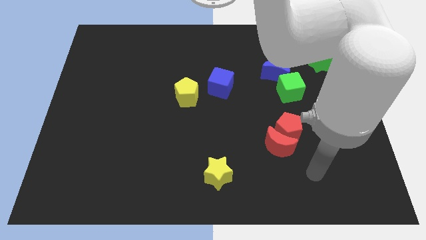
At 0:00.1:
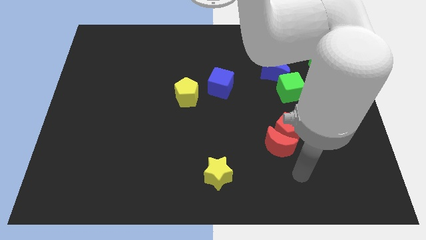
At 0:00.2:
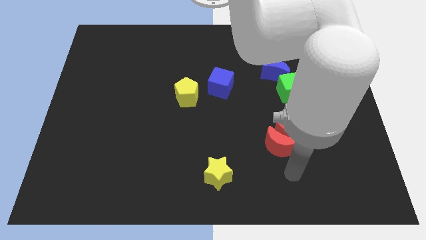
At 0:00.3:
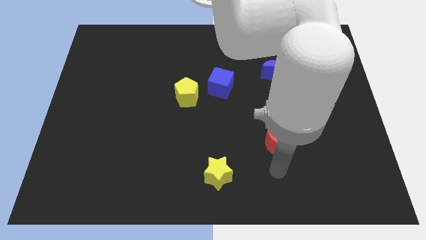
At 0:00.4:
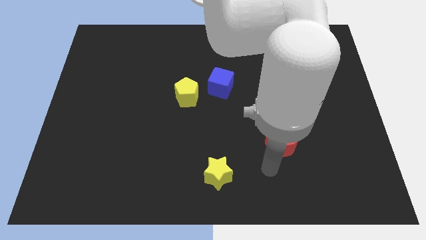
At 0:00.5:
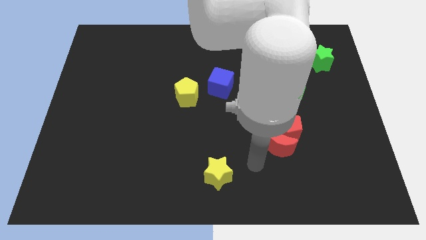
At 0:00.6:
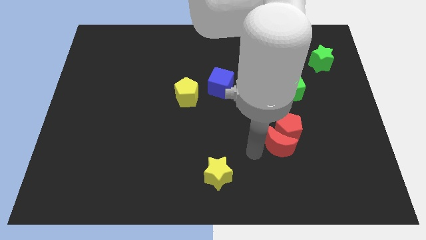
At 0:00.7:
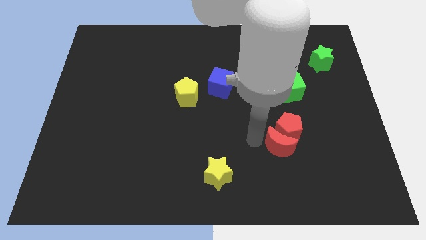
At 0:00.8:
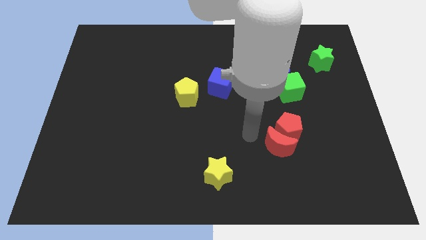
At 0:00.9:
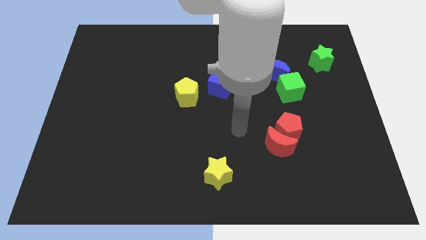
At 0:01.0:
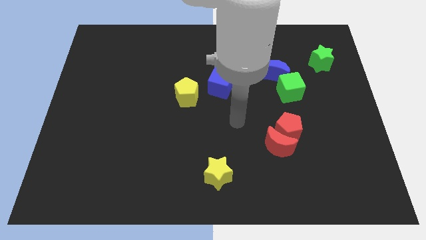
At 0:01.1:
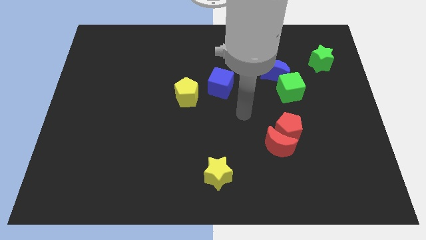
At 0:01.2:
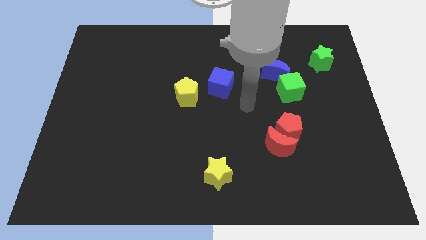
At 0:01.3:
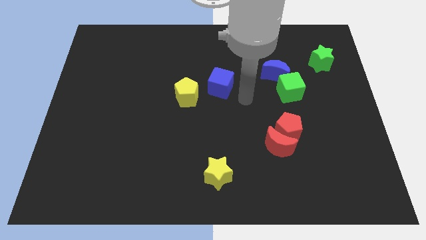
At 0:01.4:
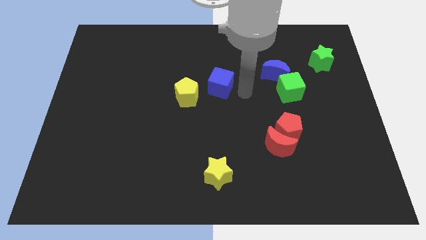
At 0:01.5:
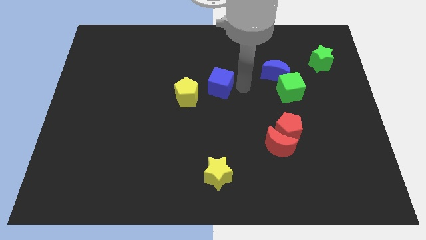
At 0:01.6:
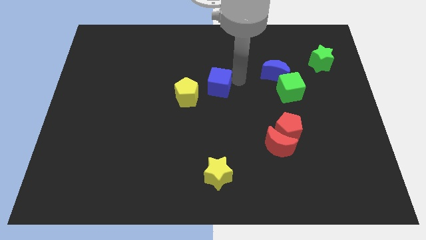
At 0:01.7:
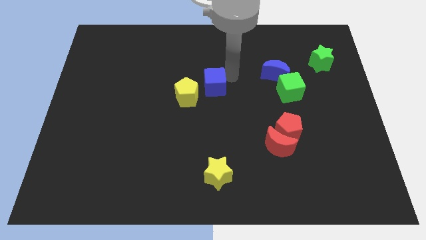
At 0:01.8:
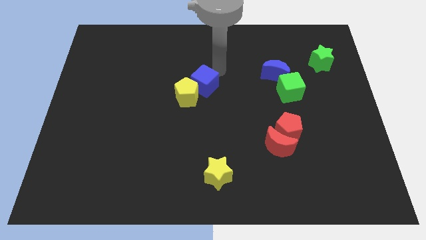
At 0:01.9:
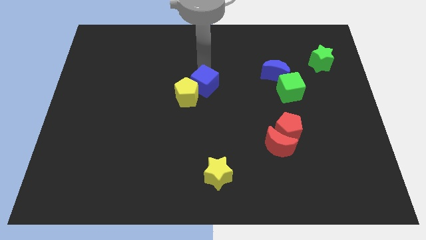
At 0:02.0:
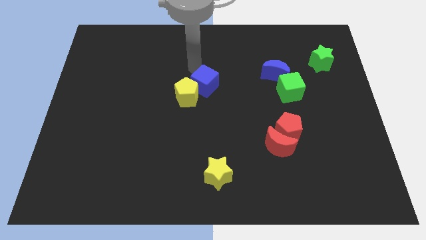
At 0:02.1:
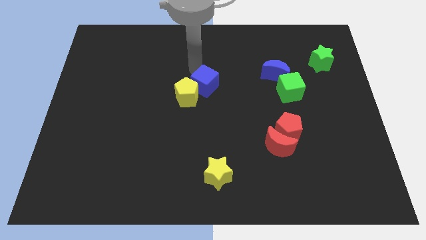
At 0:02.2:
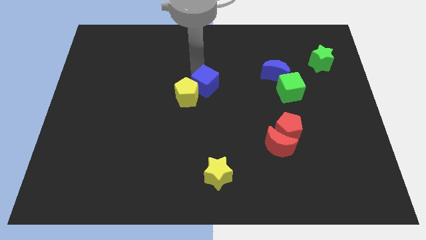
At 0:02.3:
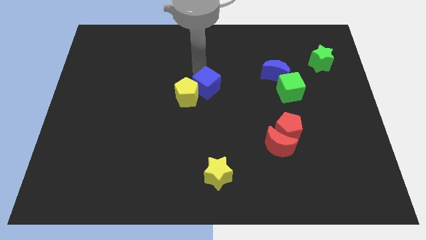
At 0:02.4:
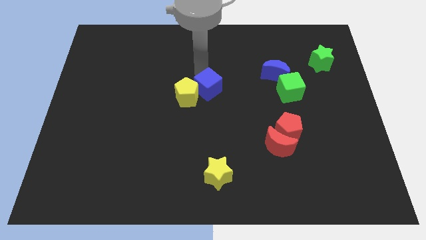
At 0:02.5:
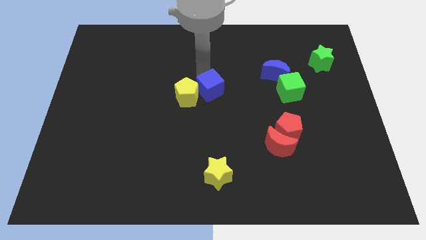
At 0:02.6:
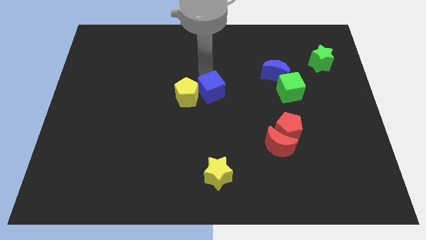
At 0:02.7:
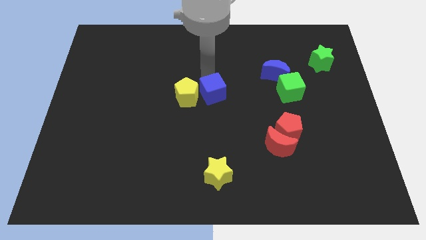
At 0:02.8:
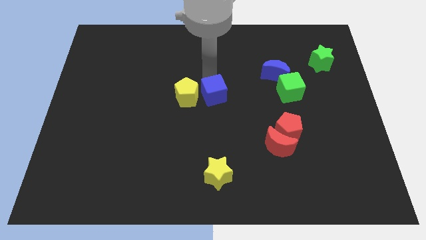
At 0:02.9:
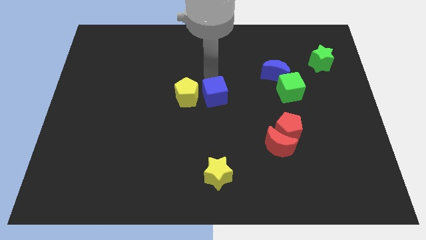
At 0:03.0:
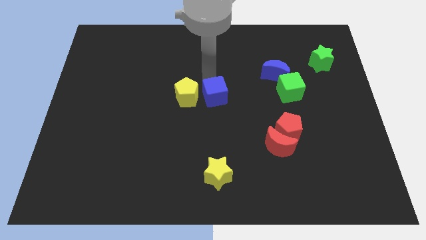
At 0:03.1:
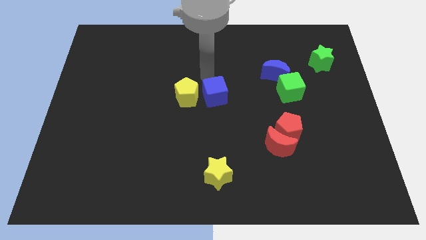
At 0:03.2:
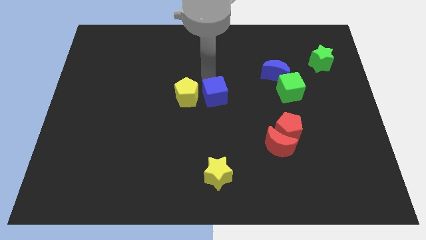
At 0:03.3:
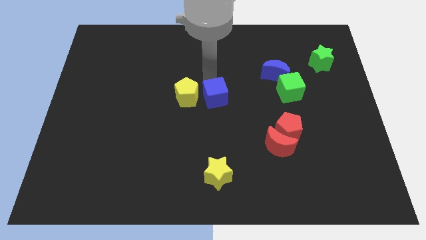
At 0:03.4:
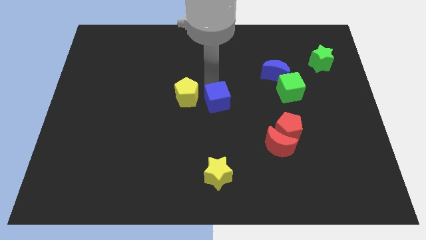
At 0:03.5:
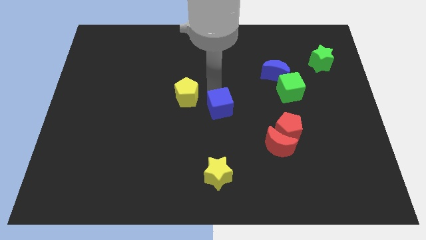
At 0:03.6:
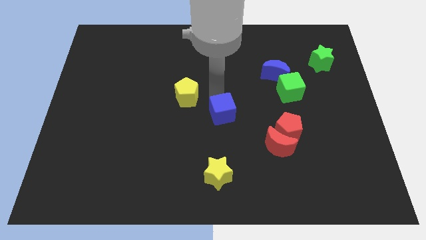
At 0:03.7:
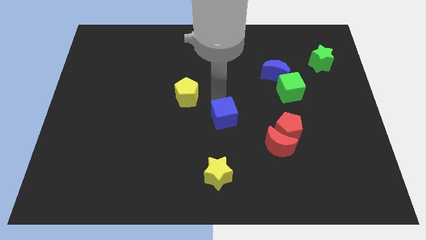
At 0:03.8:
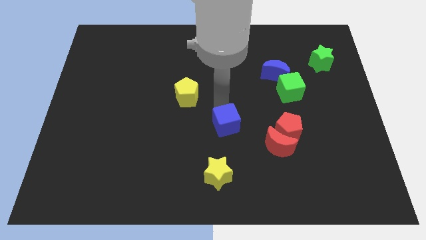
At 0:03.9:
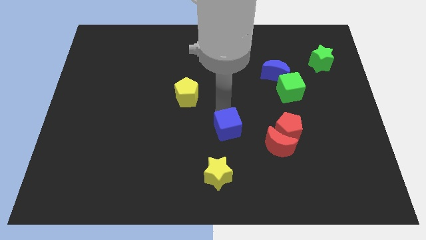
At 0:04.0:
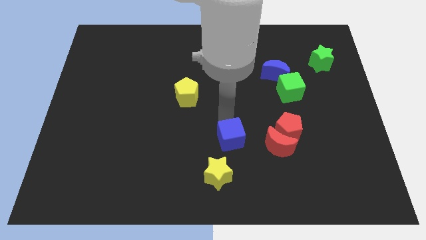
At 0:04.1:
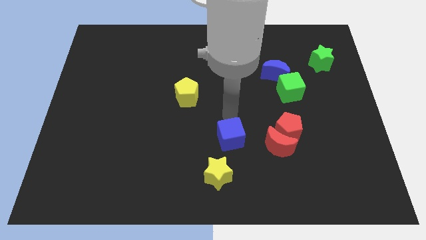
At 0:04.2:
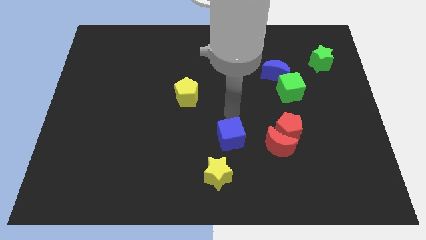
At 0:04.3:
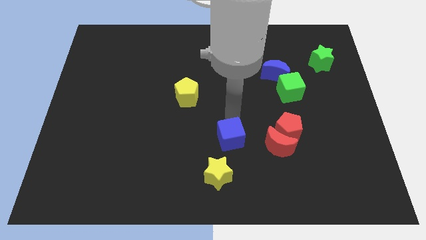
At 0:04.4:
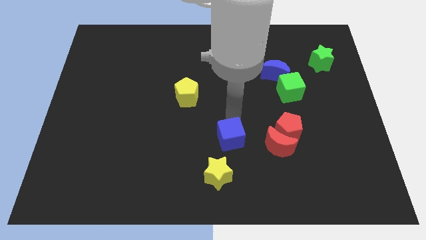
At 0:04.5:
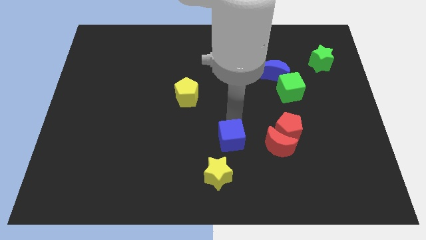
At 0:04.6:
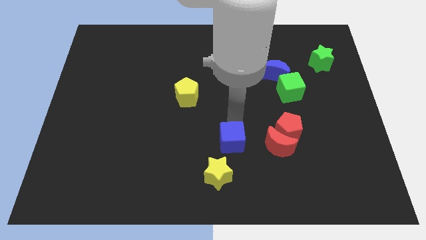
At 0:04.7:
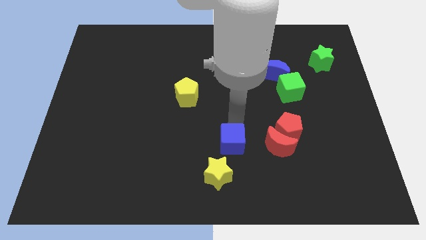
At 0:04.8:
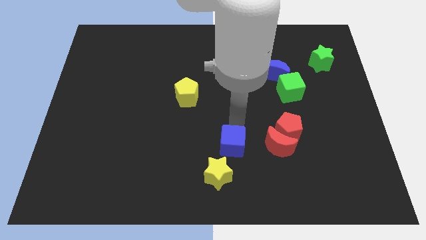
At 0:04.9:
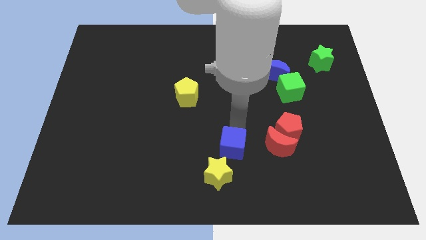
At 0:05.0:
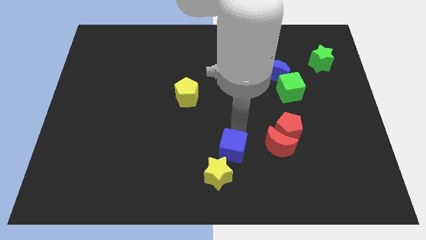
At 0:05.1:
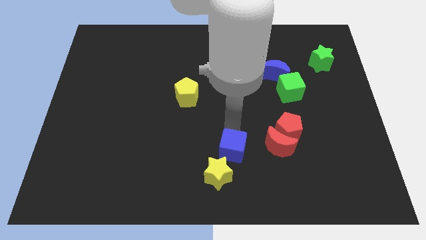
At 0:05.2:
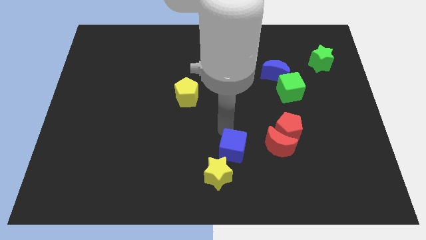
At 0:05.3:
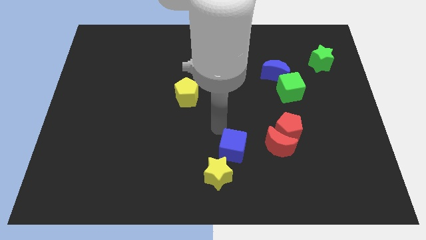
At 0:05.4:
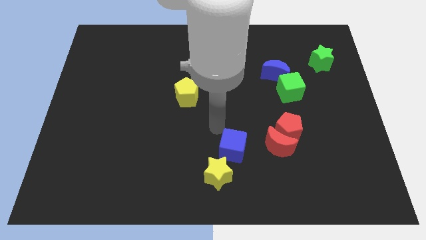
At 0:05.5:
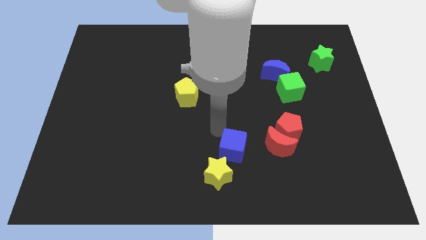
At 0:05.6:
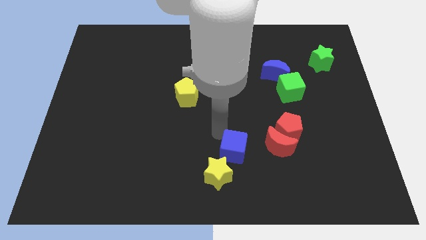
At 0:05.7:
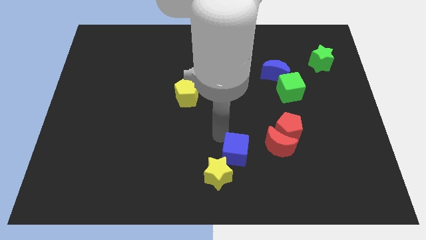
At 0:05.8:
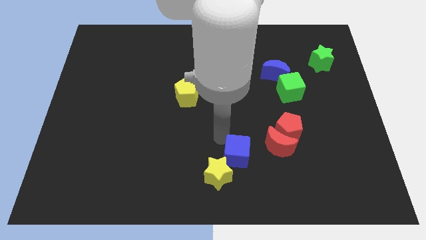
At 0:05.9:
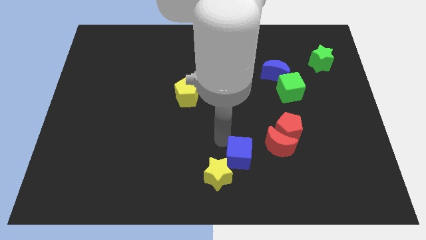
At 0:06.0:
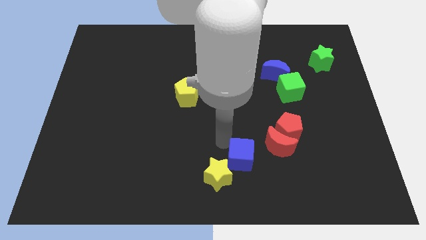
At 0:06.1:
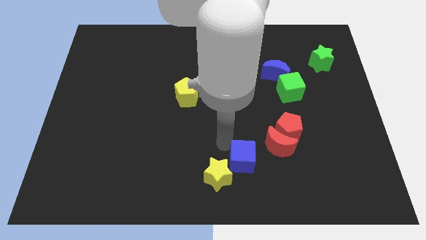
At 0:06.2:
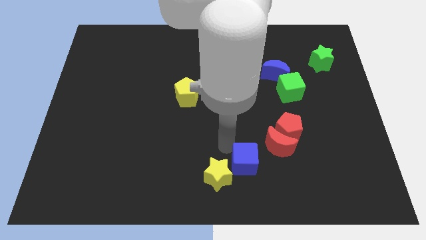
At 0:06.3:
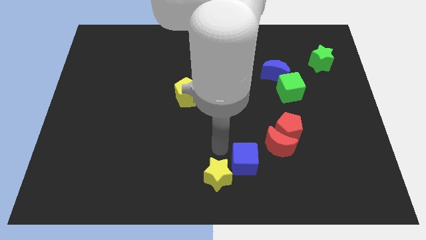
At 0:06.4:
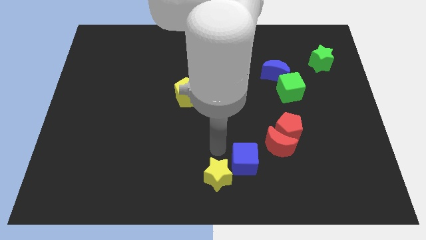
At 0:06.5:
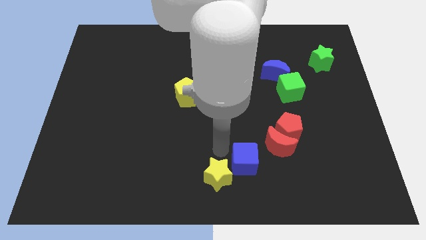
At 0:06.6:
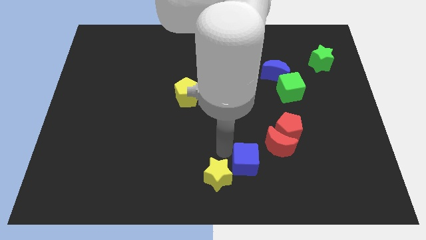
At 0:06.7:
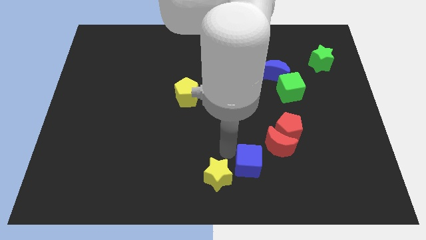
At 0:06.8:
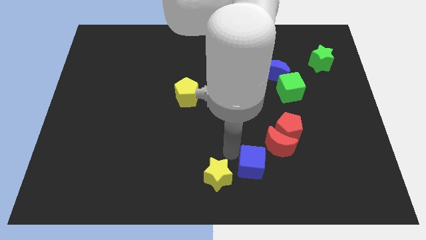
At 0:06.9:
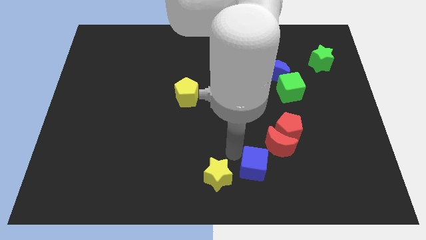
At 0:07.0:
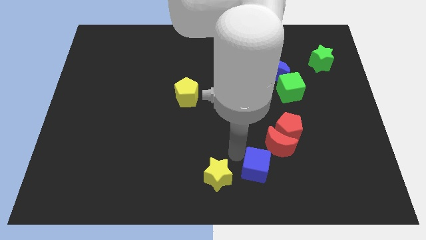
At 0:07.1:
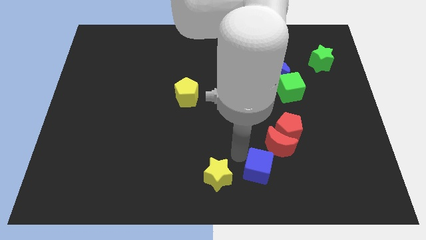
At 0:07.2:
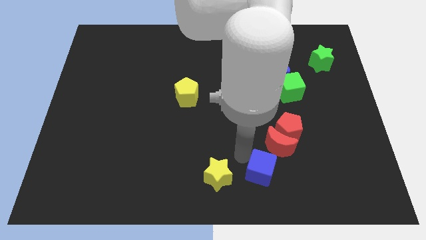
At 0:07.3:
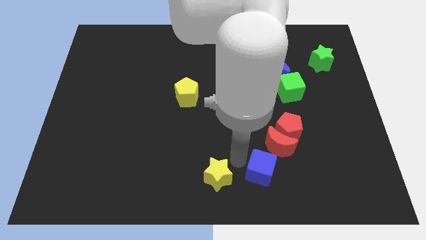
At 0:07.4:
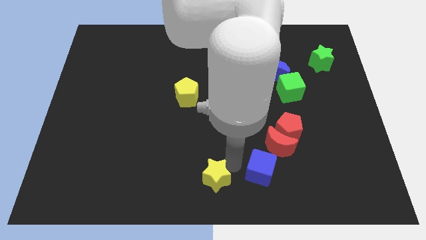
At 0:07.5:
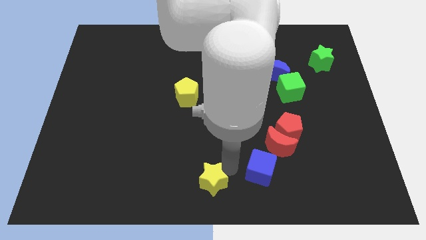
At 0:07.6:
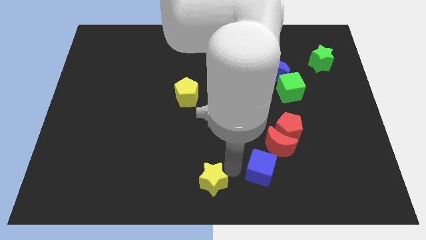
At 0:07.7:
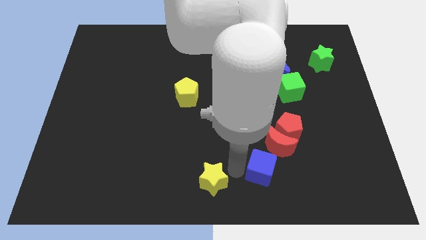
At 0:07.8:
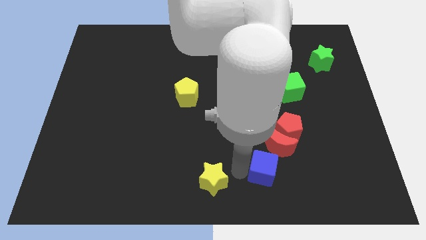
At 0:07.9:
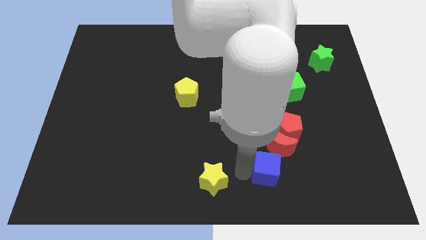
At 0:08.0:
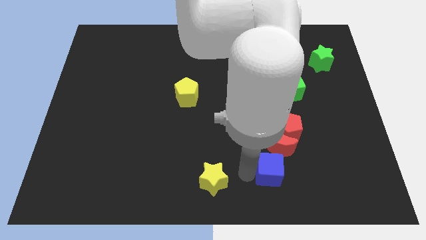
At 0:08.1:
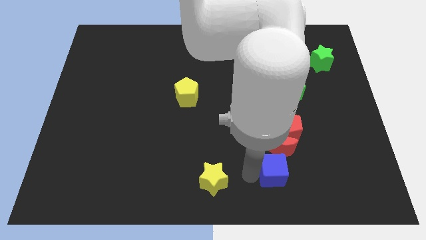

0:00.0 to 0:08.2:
move the blue cube below the red pentagon
